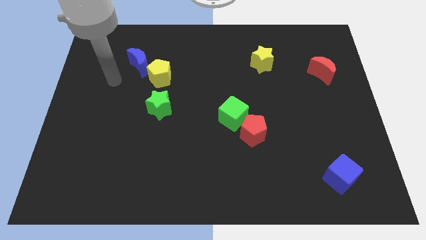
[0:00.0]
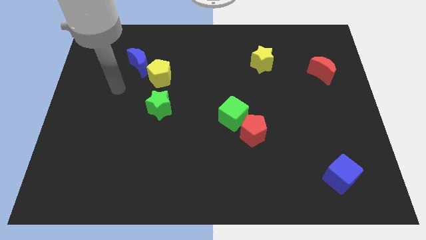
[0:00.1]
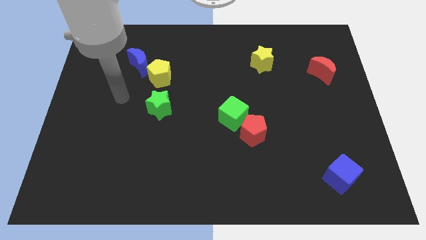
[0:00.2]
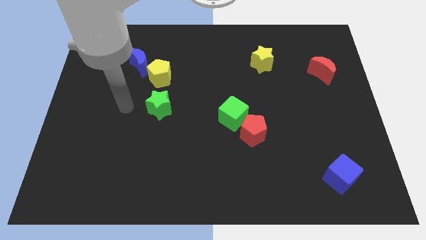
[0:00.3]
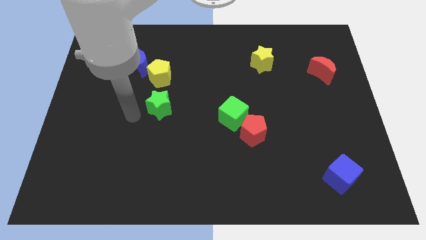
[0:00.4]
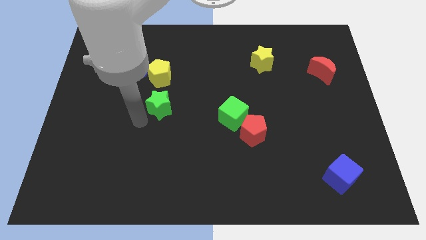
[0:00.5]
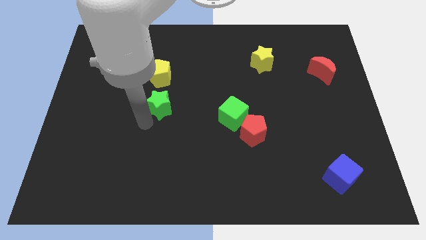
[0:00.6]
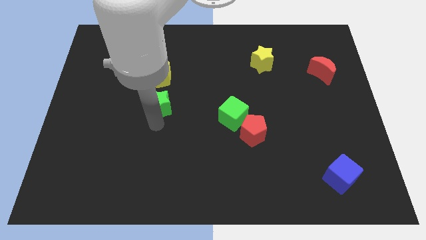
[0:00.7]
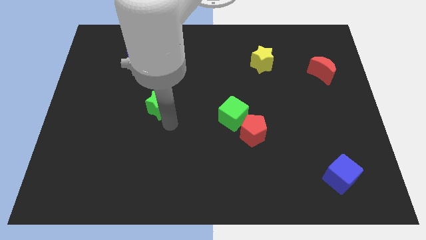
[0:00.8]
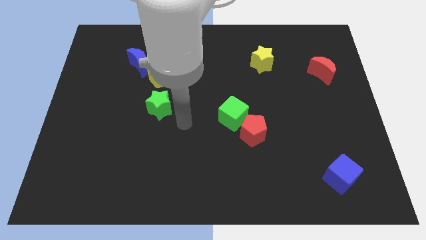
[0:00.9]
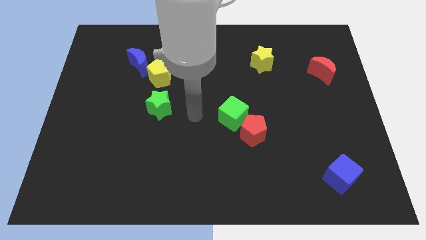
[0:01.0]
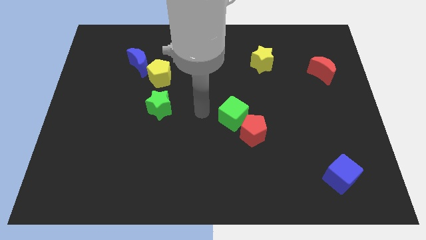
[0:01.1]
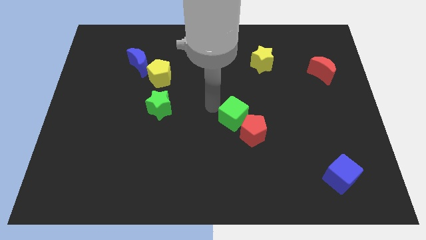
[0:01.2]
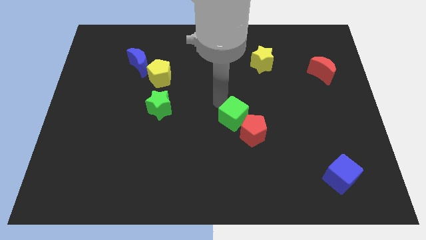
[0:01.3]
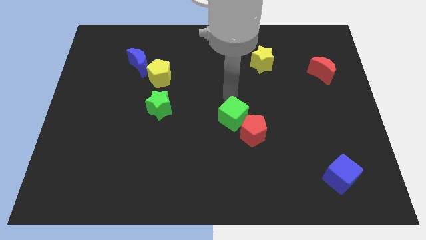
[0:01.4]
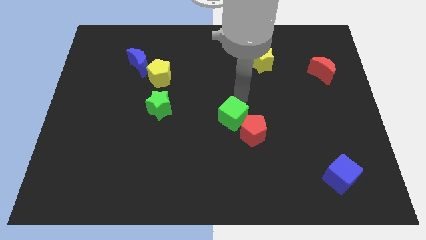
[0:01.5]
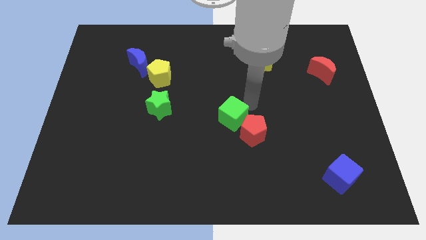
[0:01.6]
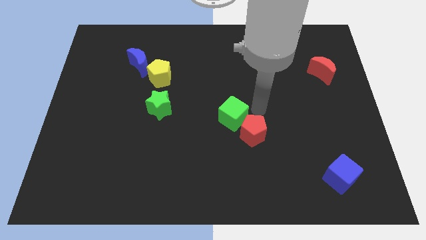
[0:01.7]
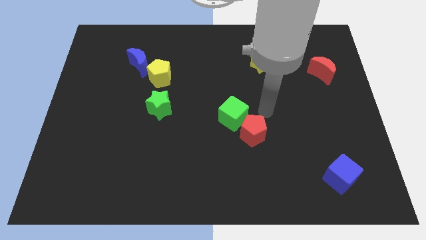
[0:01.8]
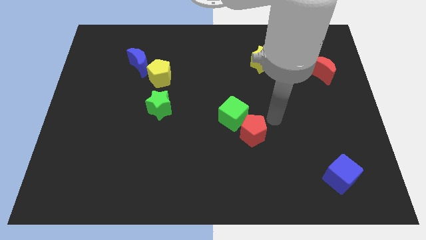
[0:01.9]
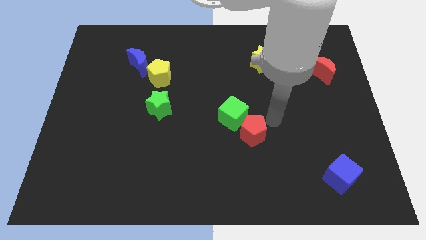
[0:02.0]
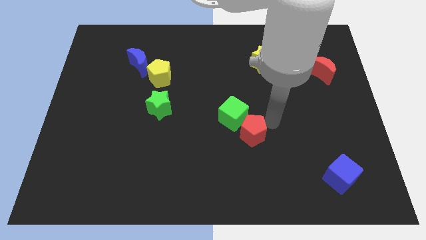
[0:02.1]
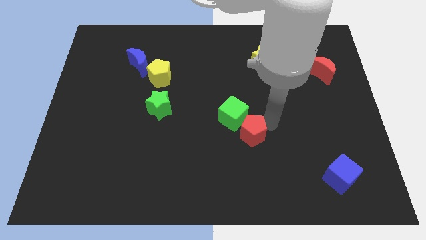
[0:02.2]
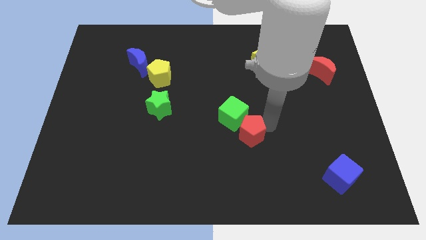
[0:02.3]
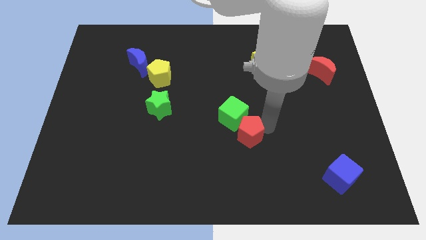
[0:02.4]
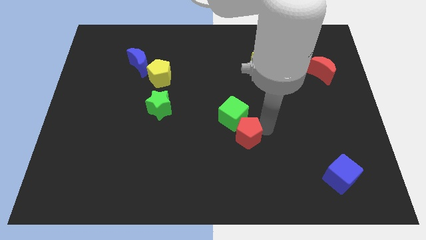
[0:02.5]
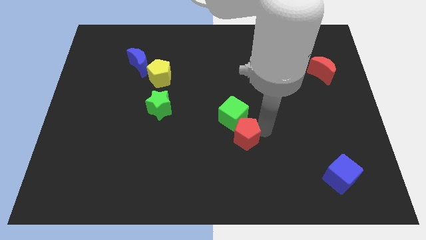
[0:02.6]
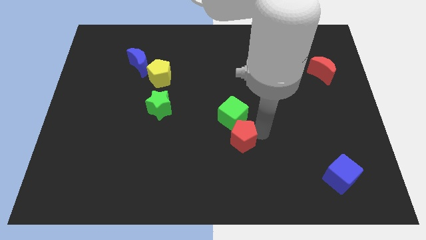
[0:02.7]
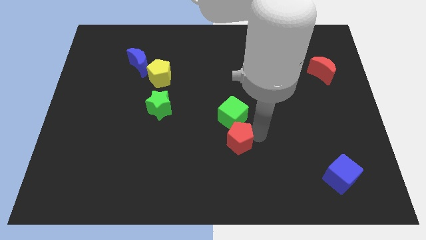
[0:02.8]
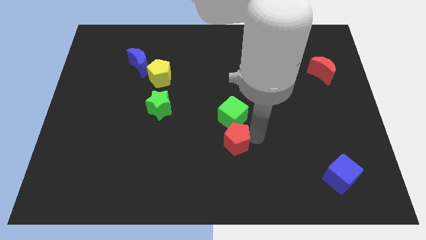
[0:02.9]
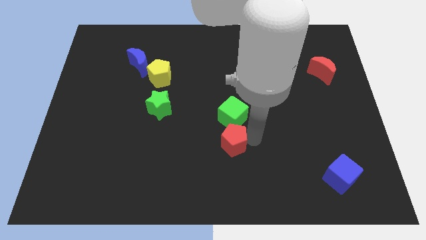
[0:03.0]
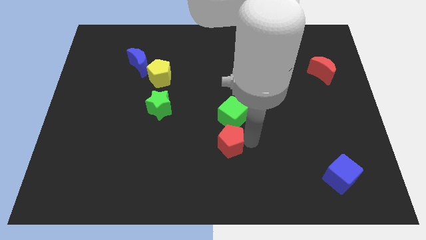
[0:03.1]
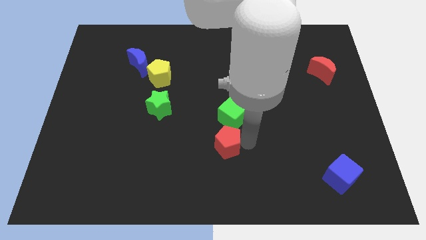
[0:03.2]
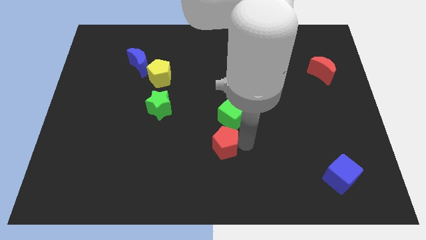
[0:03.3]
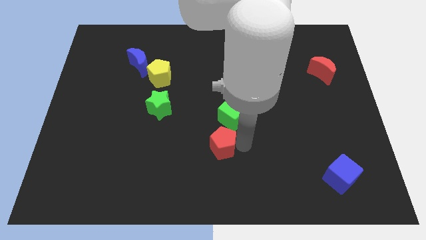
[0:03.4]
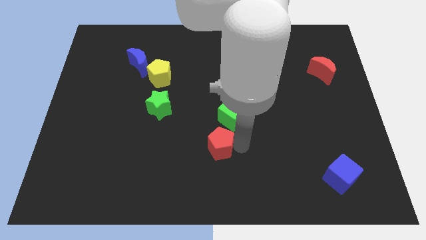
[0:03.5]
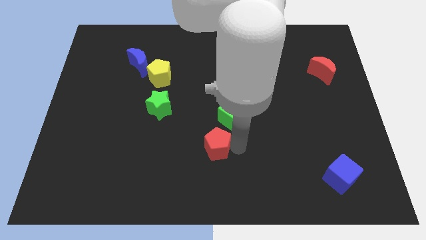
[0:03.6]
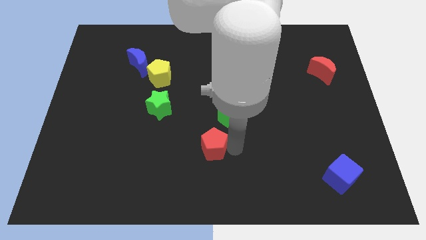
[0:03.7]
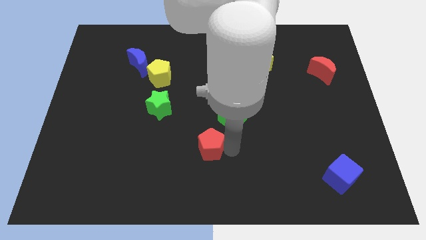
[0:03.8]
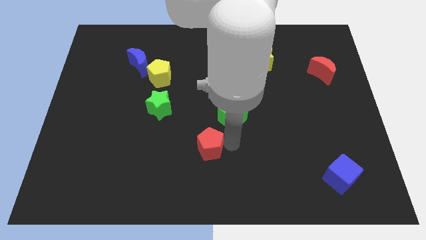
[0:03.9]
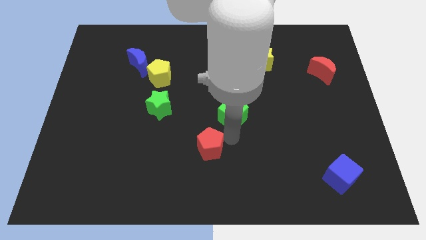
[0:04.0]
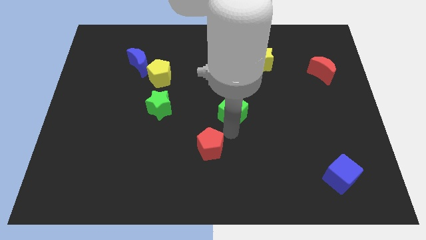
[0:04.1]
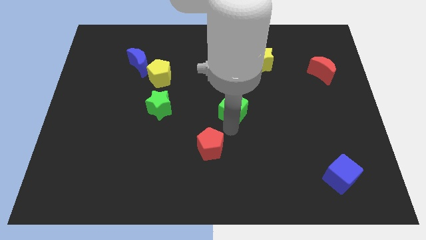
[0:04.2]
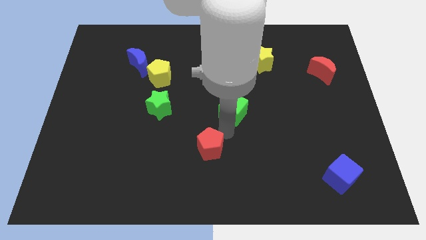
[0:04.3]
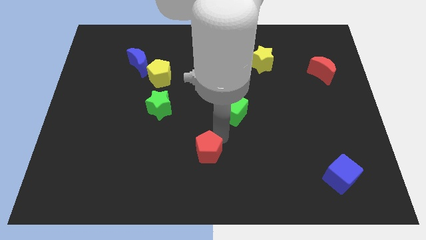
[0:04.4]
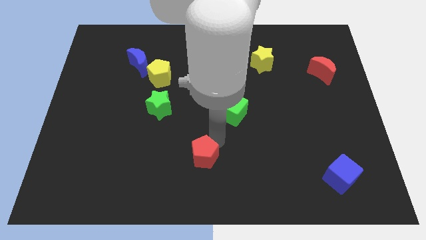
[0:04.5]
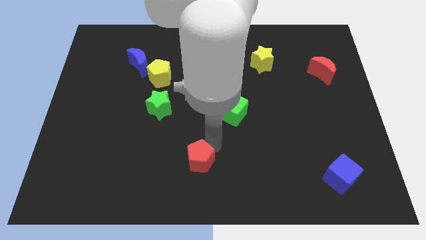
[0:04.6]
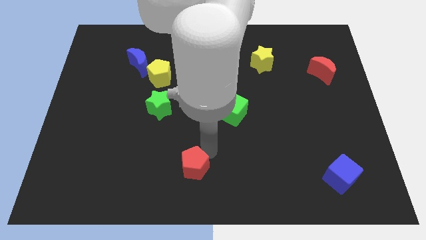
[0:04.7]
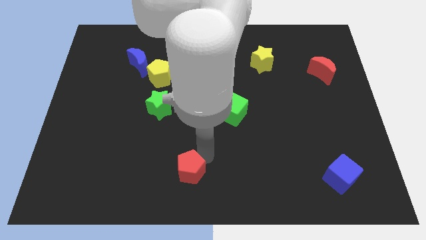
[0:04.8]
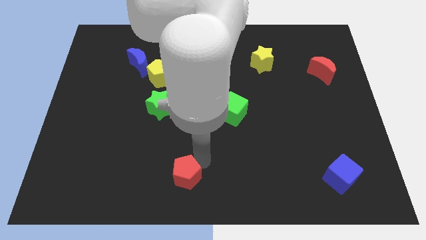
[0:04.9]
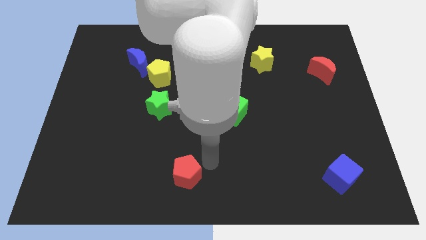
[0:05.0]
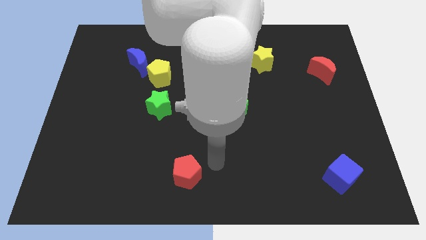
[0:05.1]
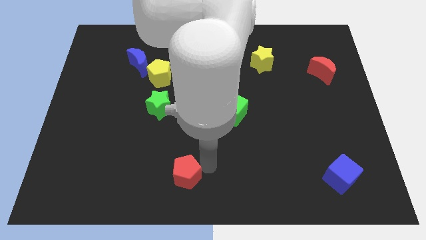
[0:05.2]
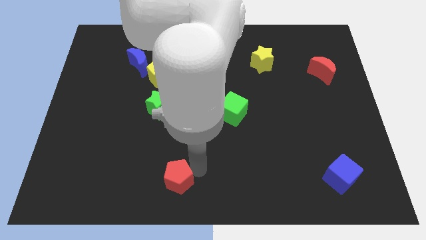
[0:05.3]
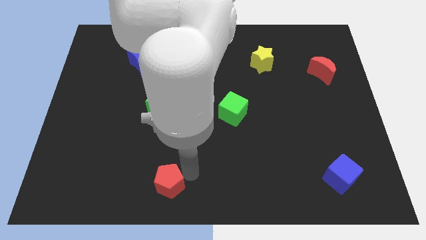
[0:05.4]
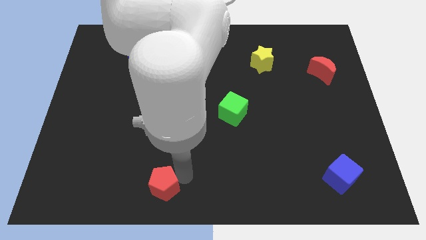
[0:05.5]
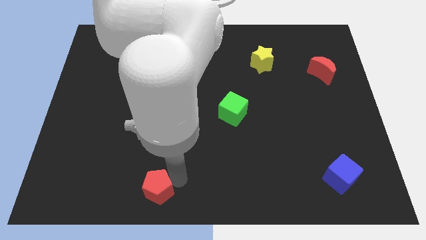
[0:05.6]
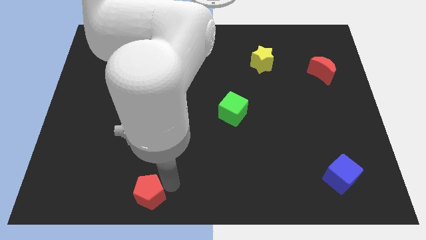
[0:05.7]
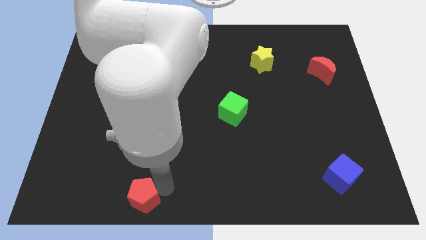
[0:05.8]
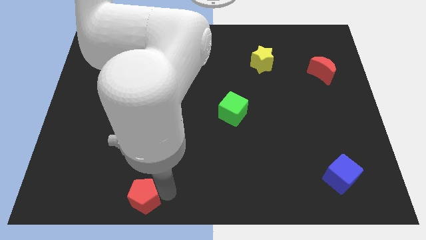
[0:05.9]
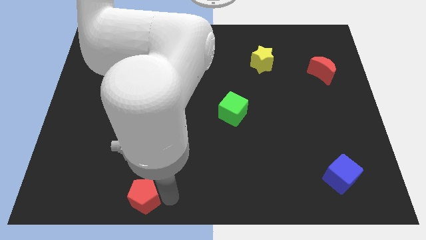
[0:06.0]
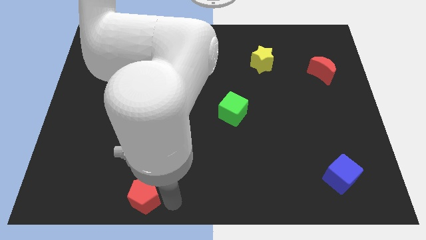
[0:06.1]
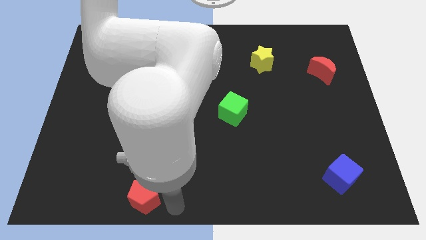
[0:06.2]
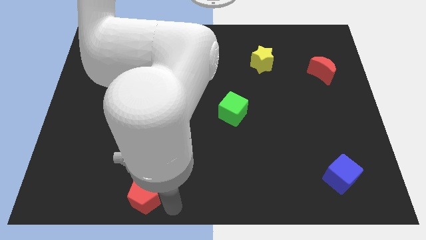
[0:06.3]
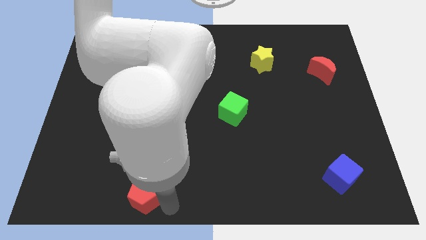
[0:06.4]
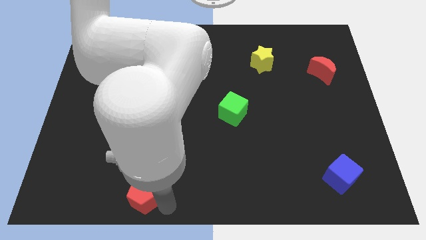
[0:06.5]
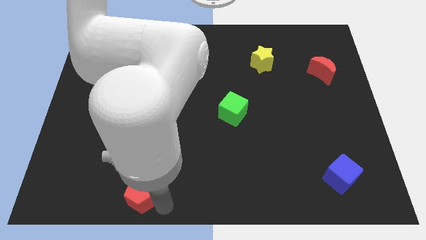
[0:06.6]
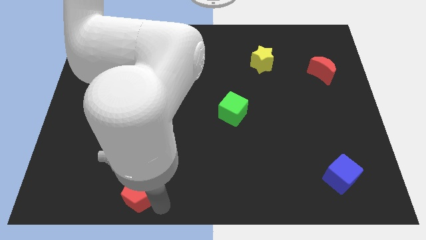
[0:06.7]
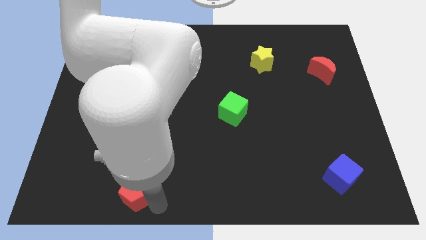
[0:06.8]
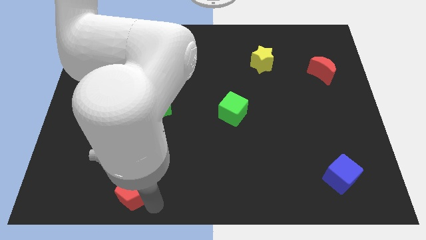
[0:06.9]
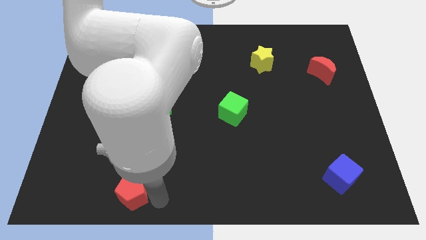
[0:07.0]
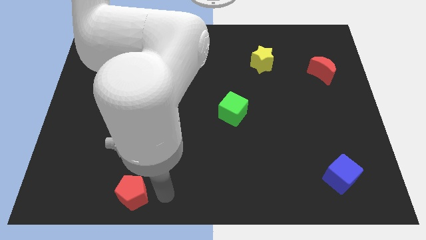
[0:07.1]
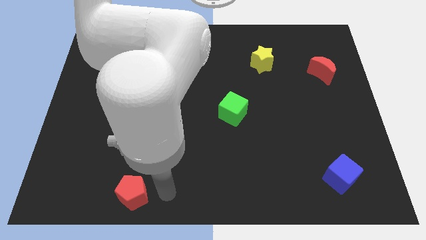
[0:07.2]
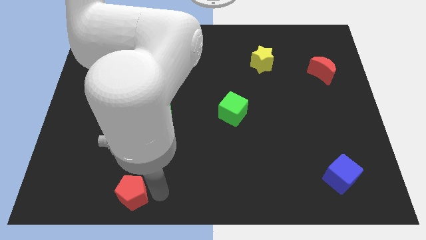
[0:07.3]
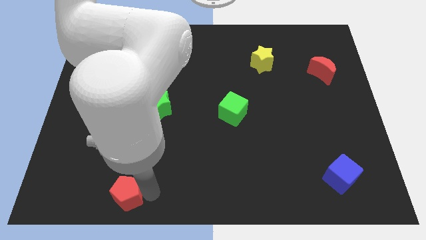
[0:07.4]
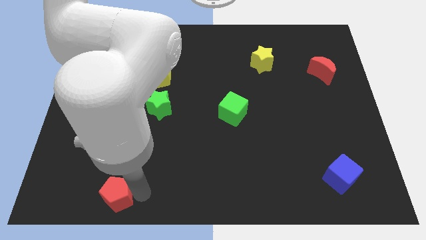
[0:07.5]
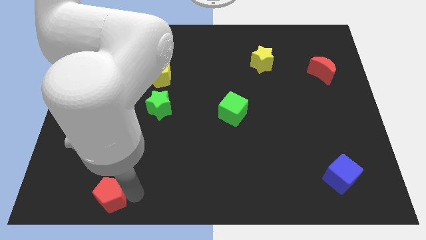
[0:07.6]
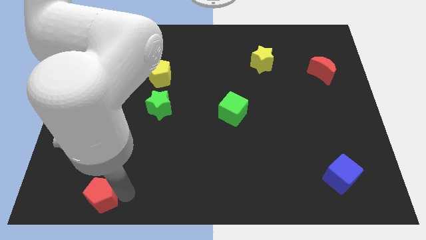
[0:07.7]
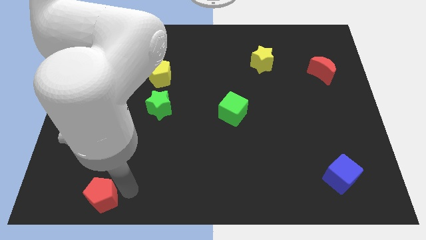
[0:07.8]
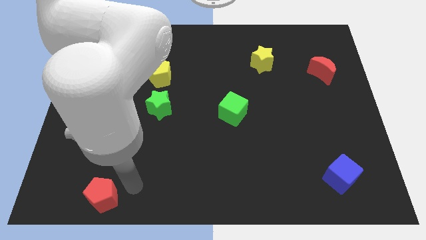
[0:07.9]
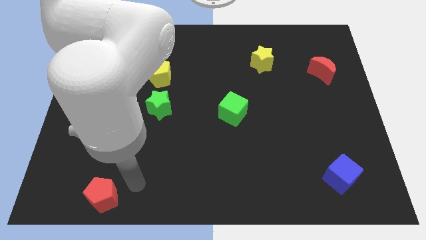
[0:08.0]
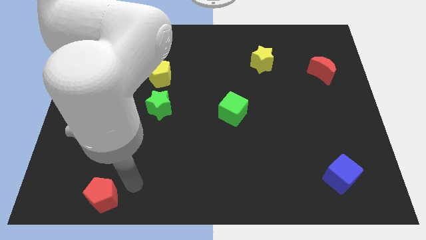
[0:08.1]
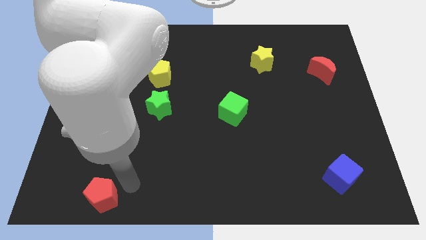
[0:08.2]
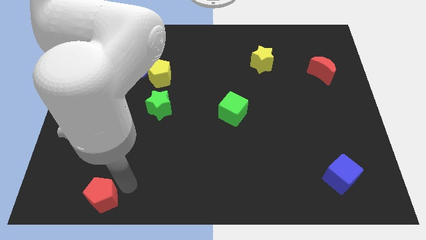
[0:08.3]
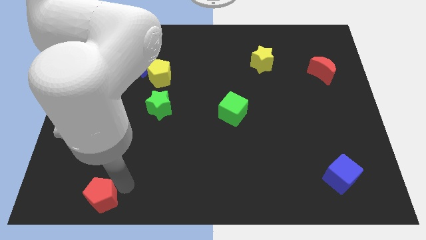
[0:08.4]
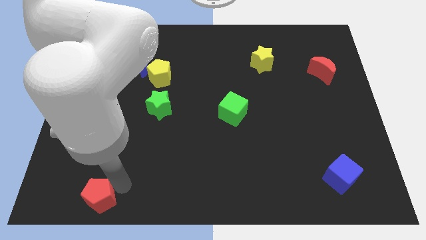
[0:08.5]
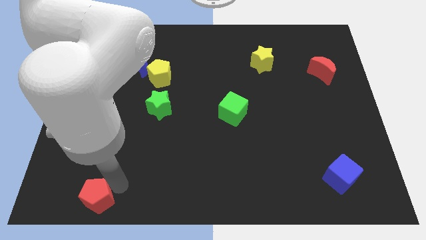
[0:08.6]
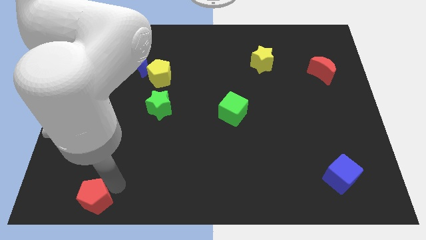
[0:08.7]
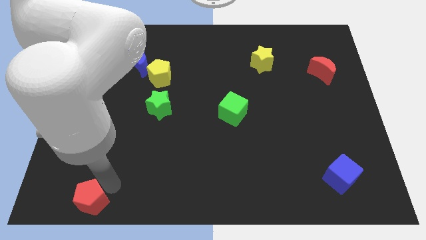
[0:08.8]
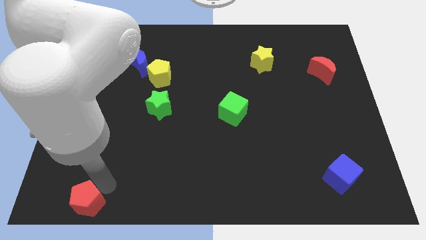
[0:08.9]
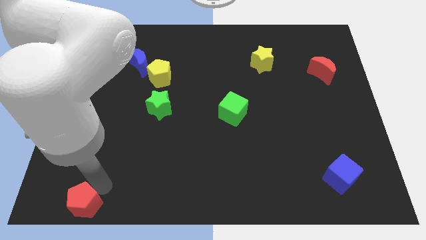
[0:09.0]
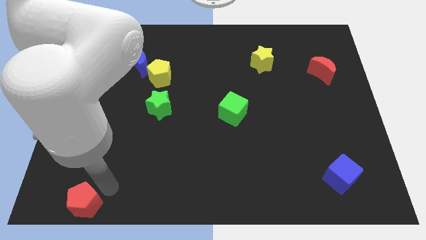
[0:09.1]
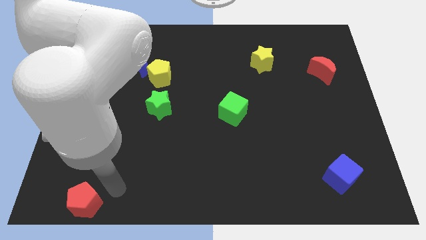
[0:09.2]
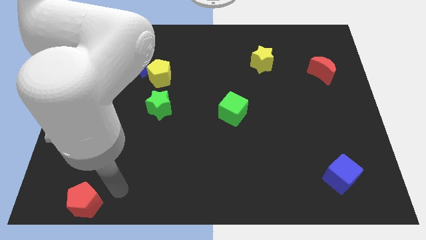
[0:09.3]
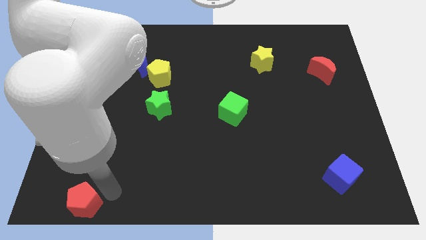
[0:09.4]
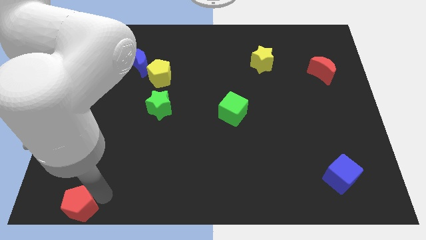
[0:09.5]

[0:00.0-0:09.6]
move the red pentagon to the bottom left
